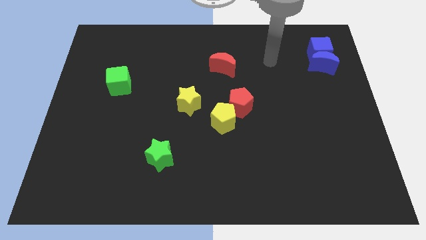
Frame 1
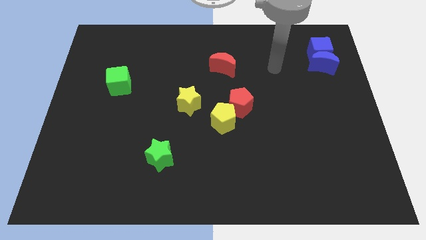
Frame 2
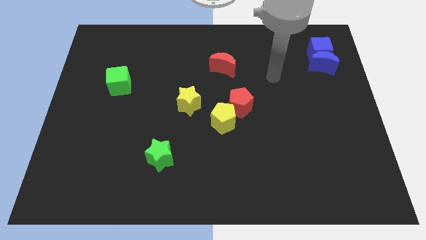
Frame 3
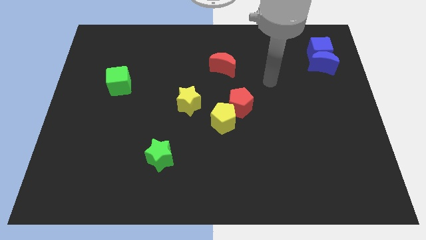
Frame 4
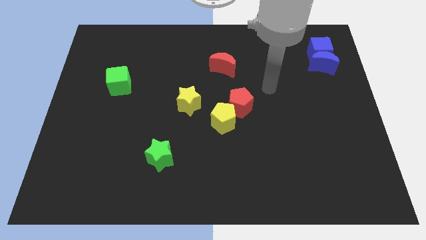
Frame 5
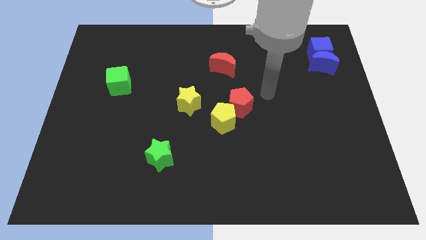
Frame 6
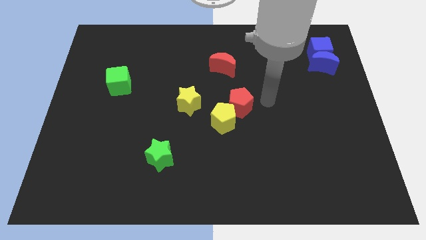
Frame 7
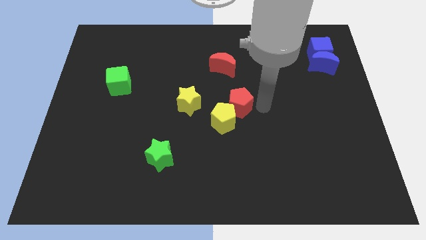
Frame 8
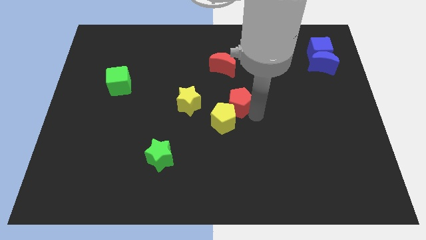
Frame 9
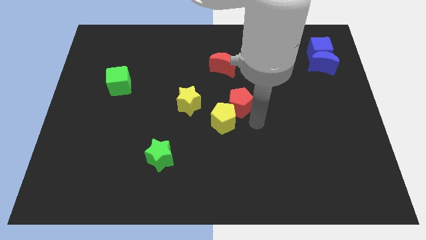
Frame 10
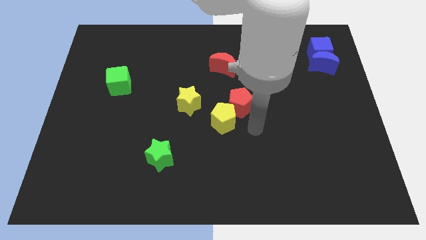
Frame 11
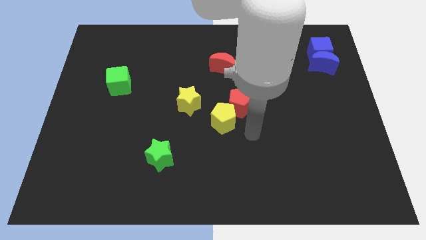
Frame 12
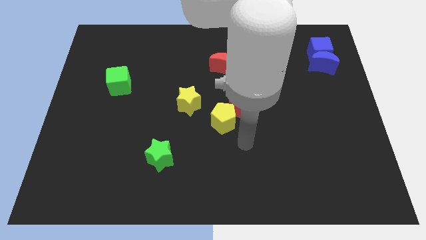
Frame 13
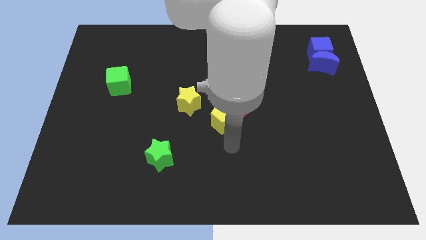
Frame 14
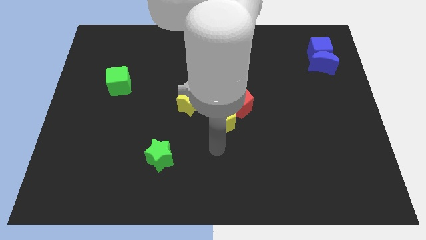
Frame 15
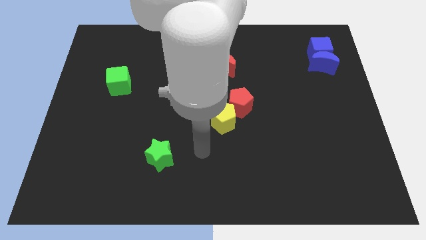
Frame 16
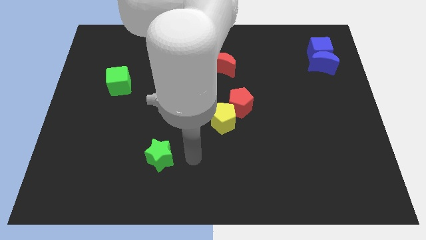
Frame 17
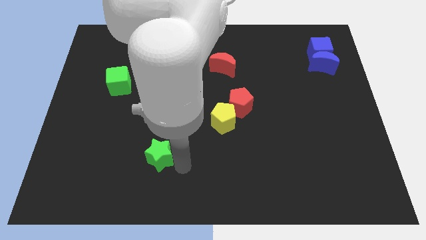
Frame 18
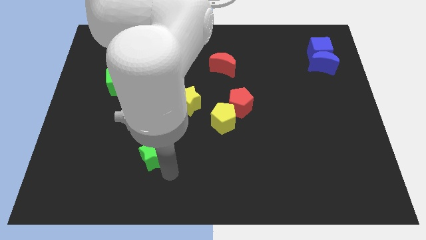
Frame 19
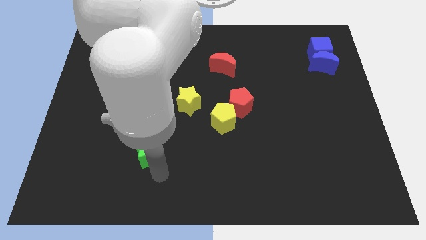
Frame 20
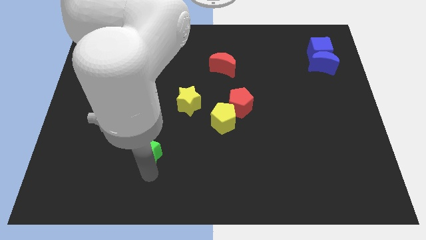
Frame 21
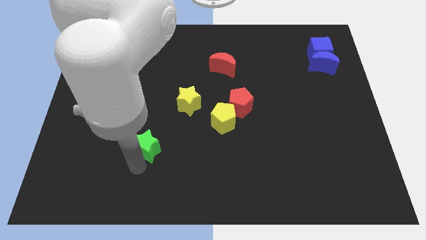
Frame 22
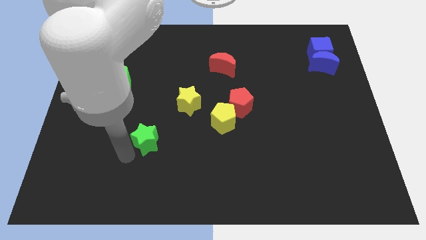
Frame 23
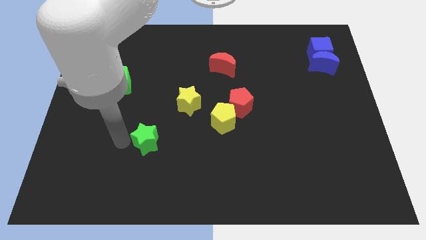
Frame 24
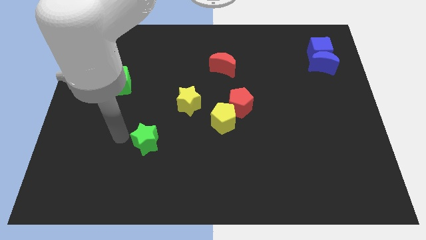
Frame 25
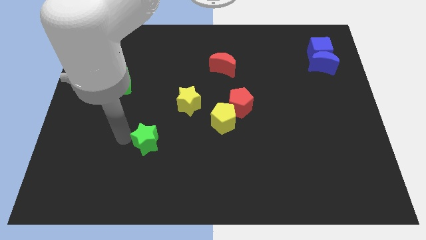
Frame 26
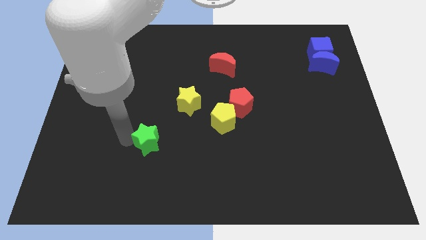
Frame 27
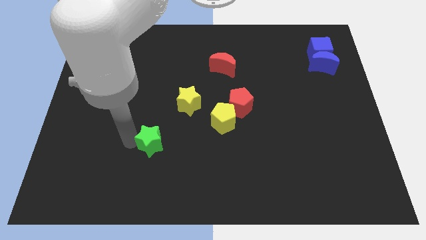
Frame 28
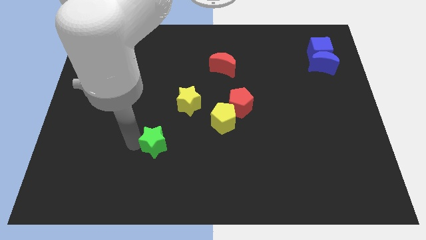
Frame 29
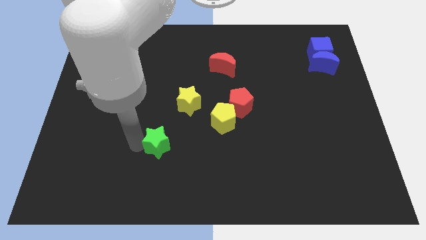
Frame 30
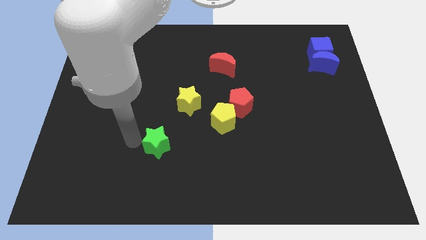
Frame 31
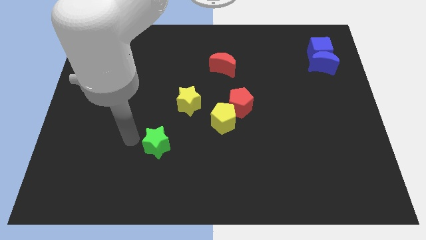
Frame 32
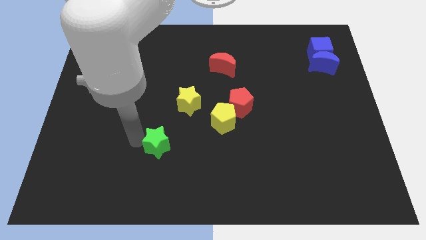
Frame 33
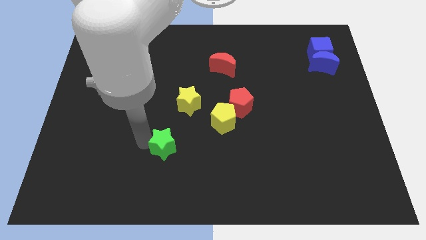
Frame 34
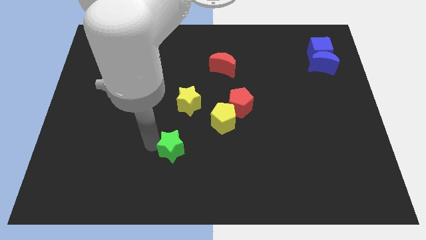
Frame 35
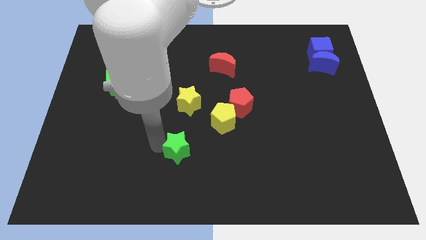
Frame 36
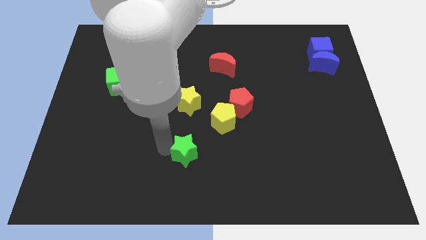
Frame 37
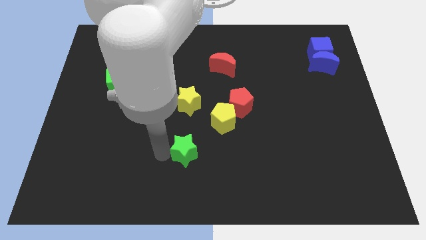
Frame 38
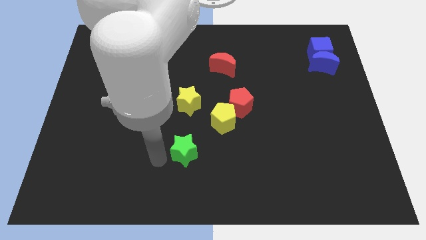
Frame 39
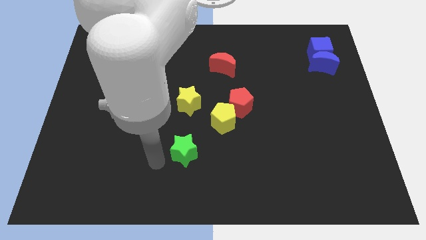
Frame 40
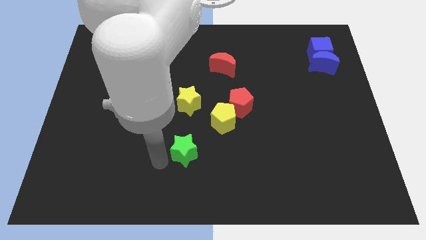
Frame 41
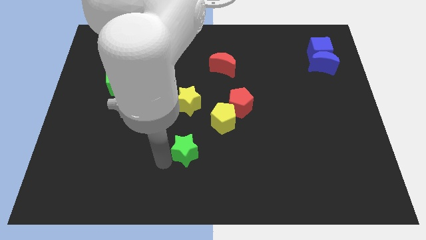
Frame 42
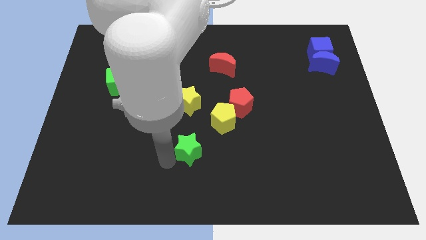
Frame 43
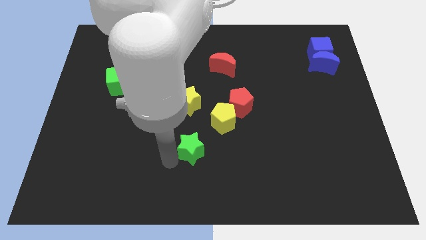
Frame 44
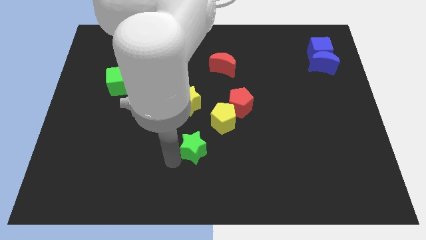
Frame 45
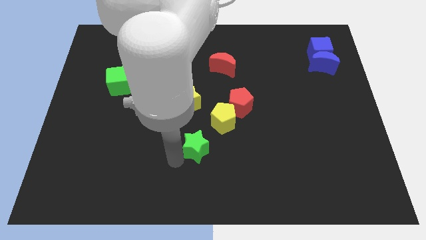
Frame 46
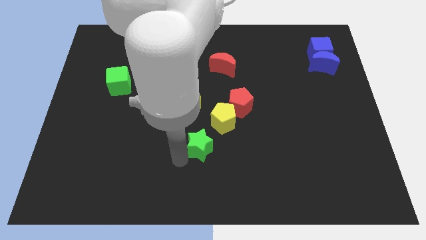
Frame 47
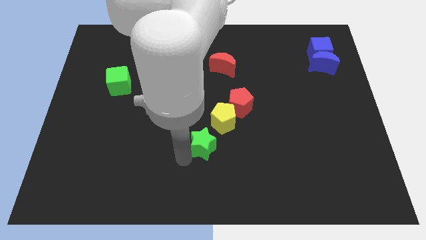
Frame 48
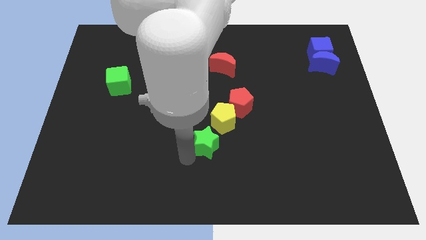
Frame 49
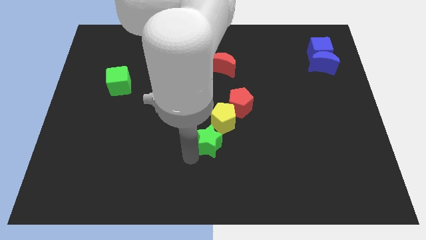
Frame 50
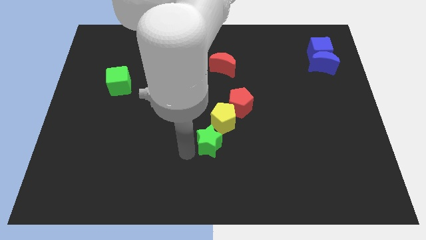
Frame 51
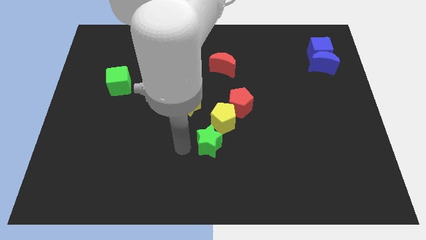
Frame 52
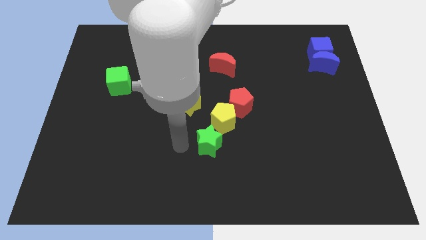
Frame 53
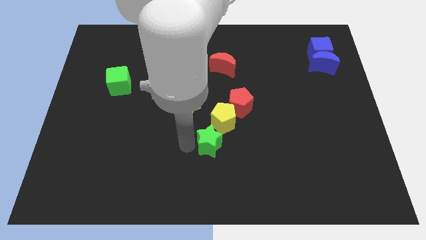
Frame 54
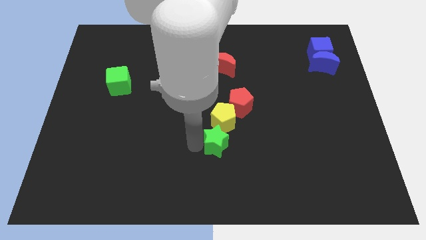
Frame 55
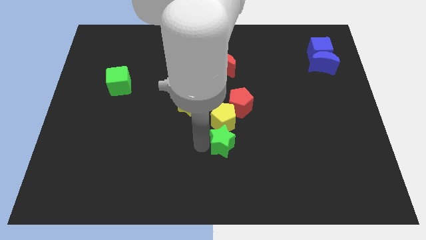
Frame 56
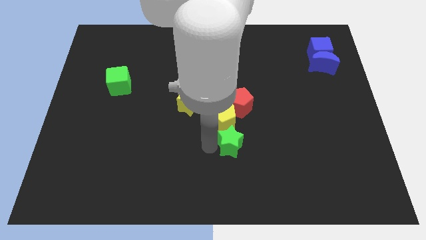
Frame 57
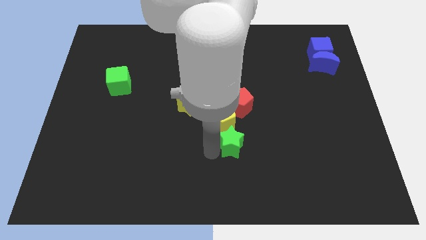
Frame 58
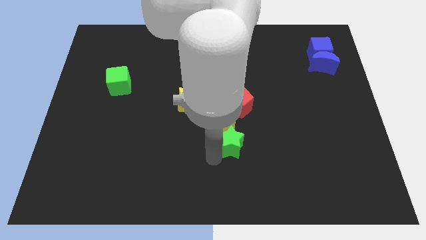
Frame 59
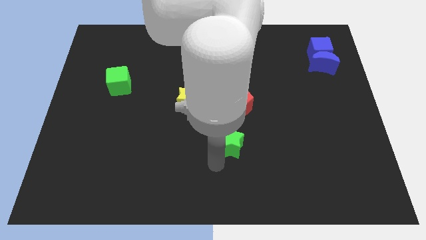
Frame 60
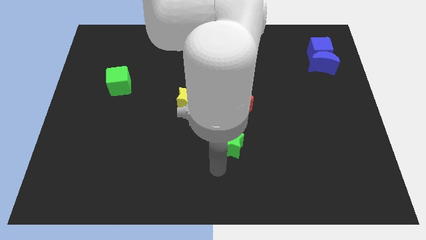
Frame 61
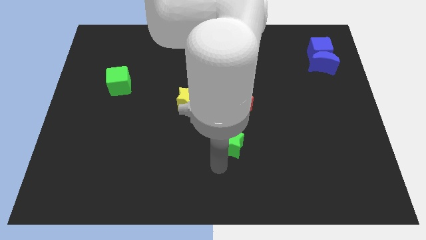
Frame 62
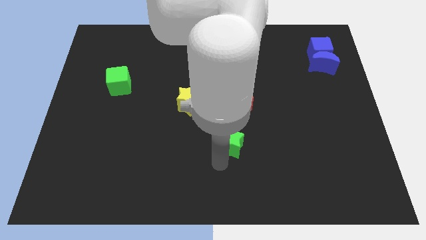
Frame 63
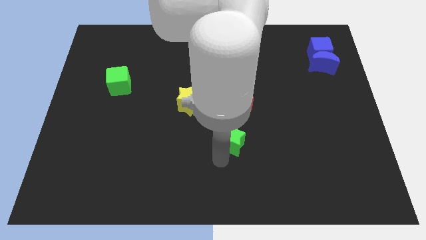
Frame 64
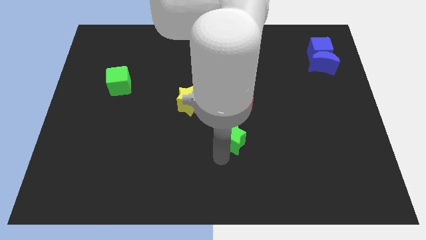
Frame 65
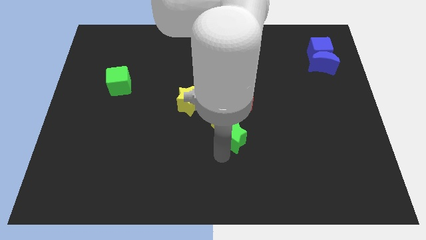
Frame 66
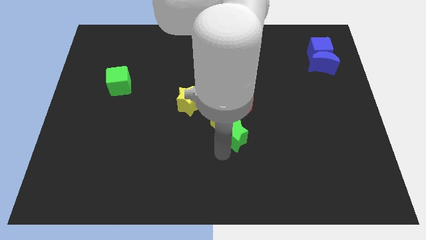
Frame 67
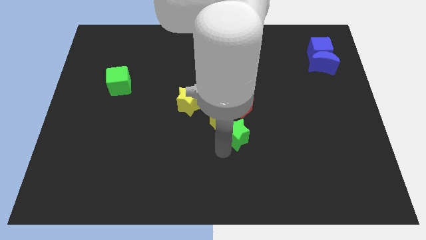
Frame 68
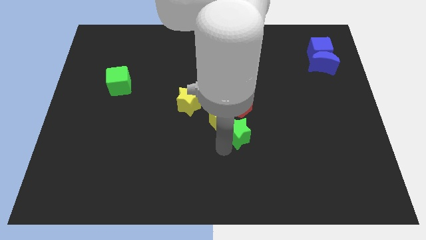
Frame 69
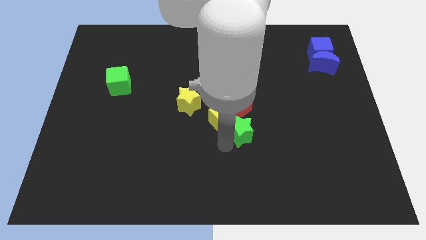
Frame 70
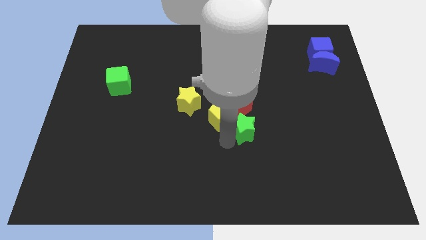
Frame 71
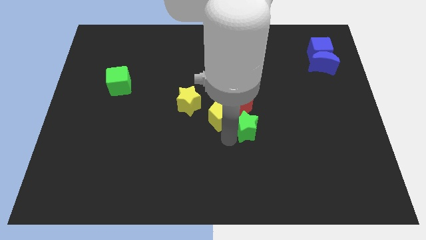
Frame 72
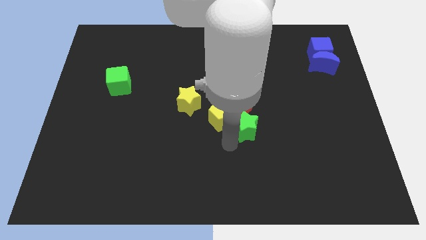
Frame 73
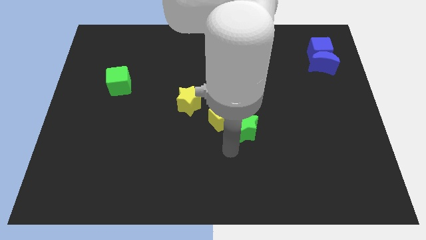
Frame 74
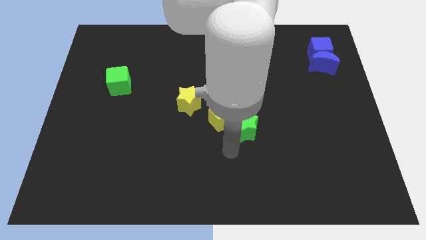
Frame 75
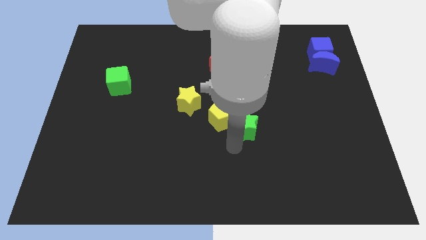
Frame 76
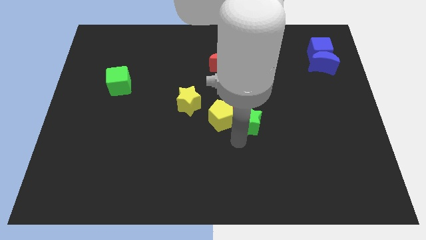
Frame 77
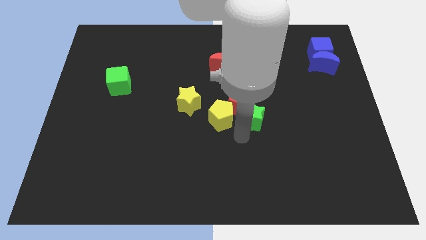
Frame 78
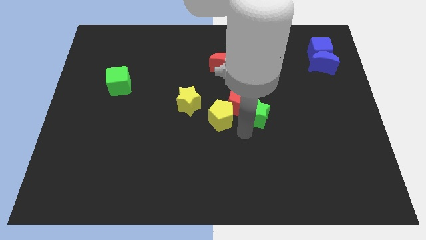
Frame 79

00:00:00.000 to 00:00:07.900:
push the green star upwards and then to the right

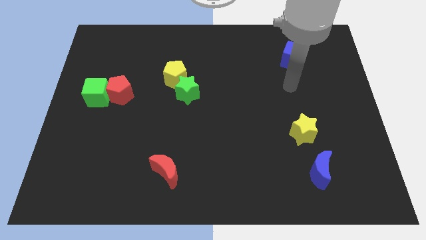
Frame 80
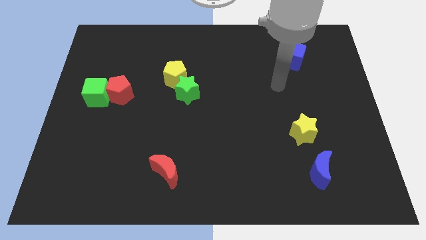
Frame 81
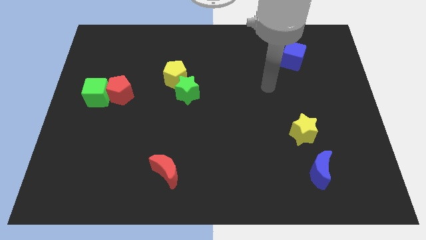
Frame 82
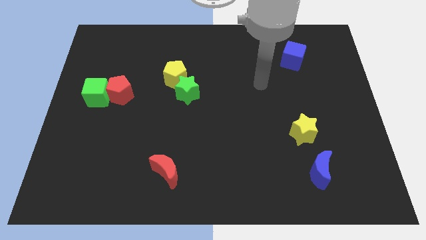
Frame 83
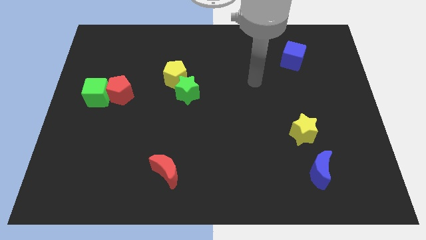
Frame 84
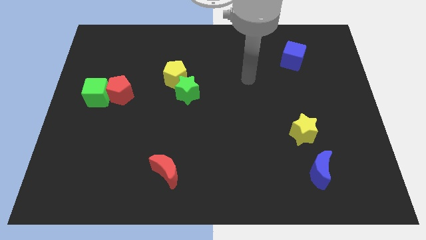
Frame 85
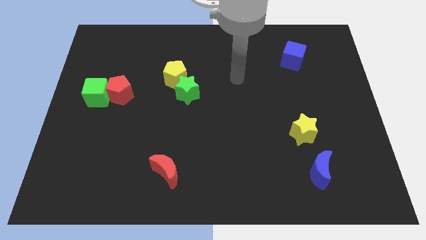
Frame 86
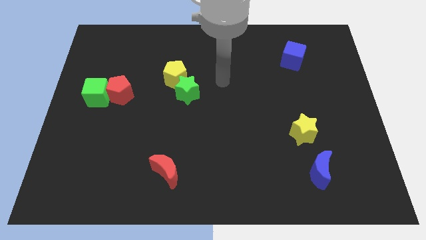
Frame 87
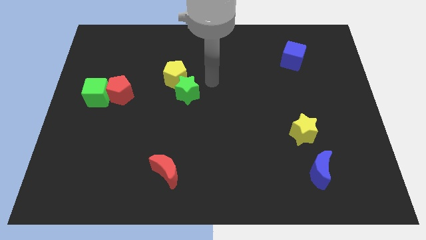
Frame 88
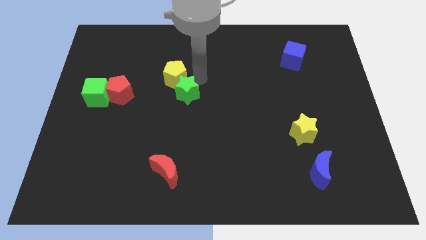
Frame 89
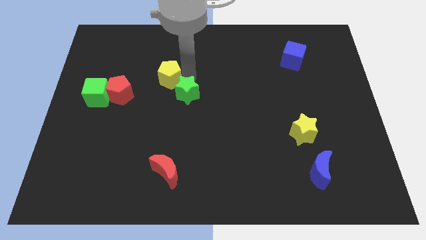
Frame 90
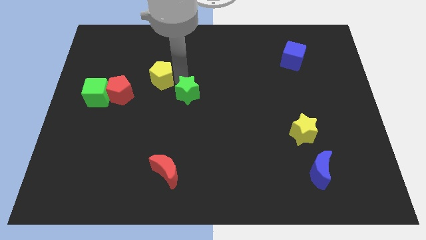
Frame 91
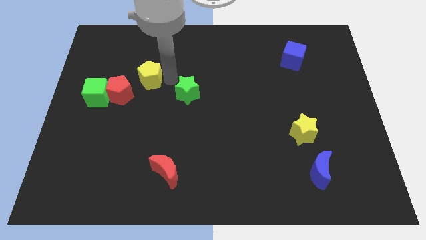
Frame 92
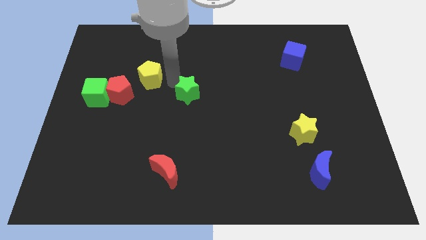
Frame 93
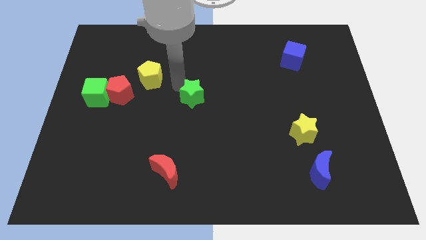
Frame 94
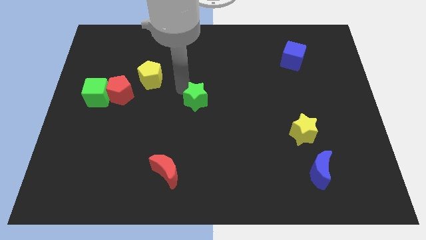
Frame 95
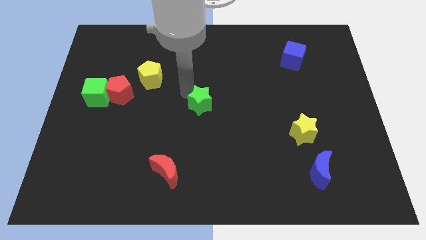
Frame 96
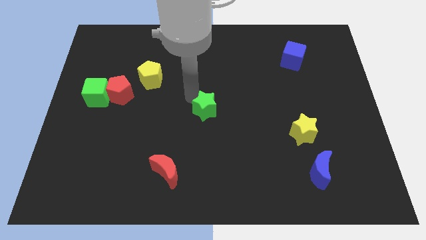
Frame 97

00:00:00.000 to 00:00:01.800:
slightly push the green star diagonally down and right
